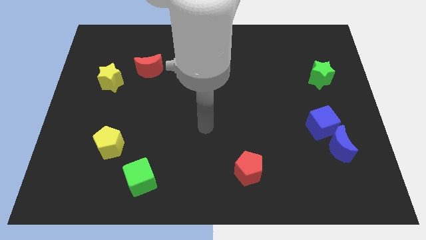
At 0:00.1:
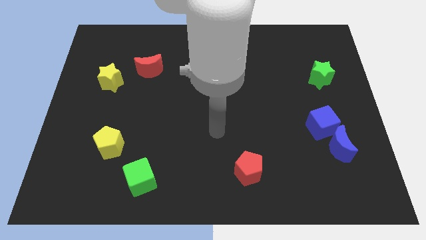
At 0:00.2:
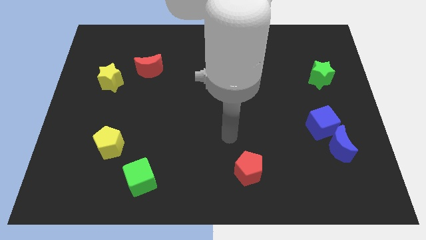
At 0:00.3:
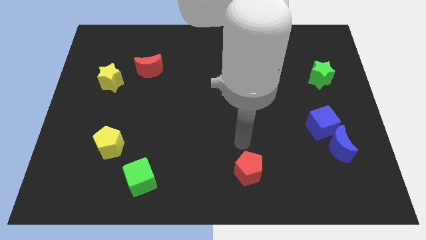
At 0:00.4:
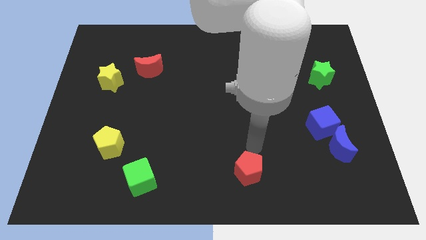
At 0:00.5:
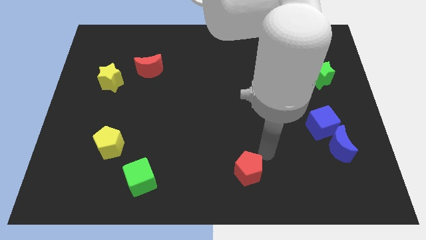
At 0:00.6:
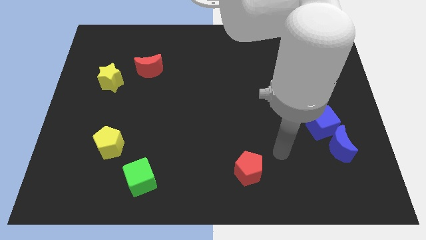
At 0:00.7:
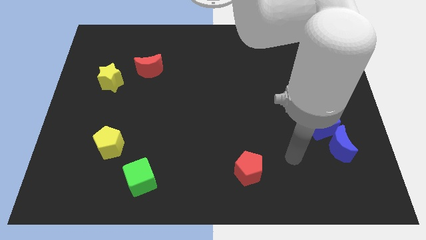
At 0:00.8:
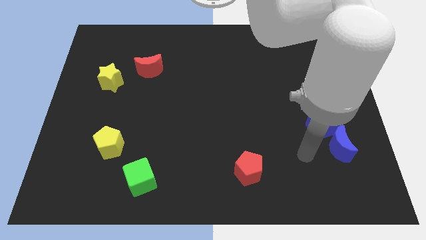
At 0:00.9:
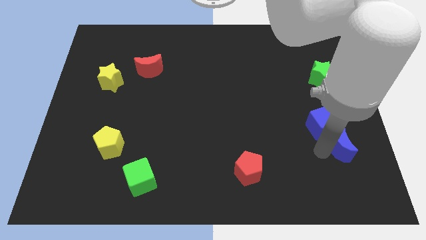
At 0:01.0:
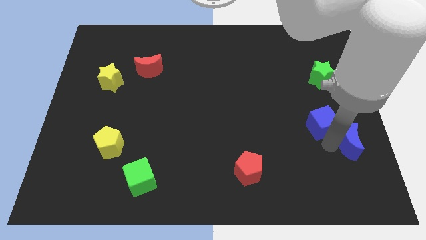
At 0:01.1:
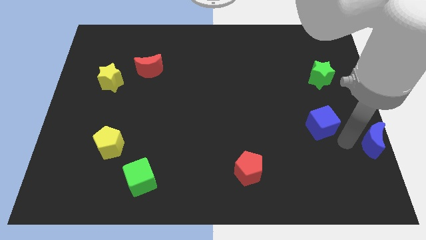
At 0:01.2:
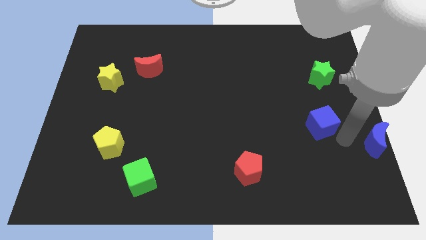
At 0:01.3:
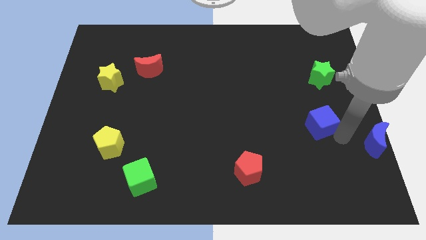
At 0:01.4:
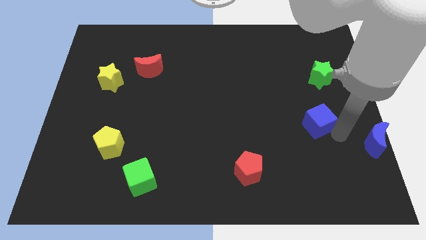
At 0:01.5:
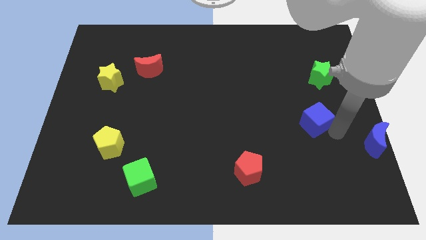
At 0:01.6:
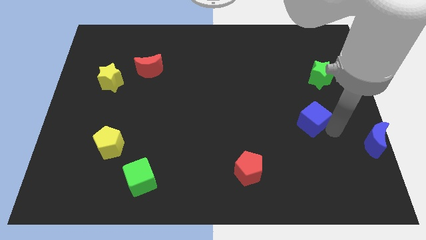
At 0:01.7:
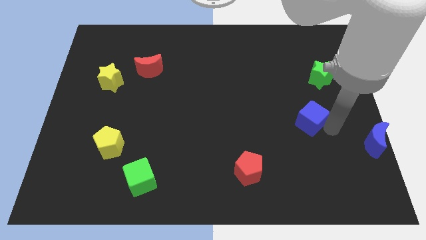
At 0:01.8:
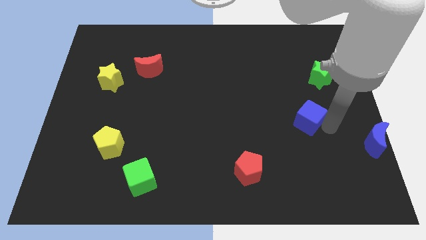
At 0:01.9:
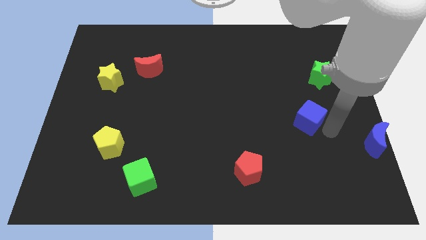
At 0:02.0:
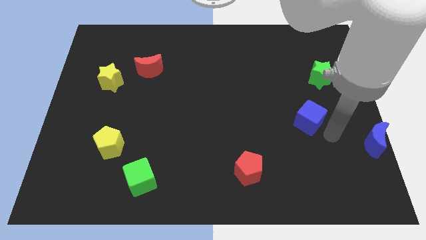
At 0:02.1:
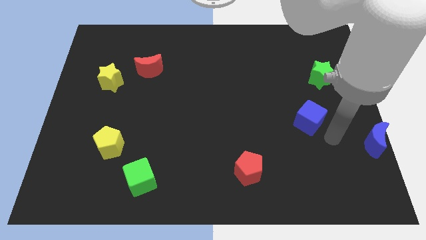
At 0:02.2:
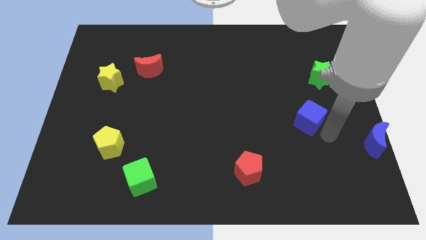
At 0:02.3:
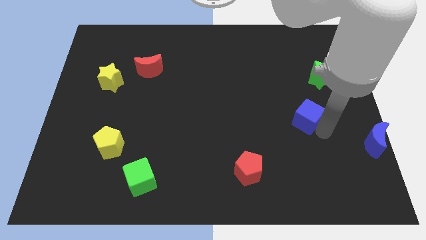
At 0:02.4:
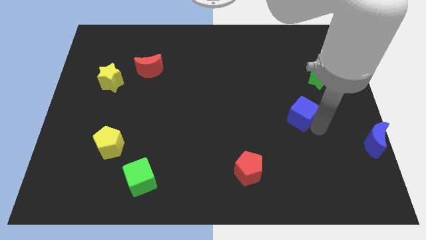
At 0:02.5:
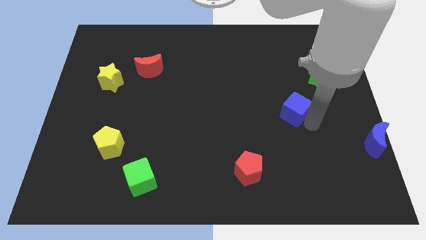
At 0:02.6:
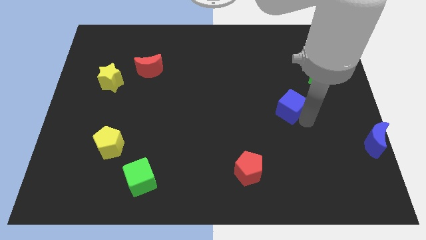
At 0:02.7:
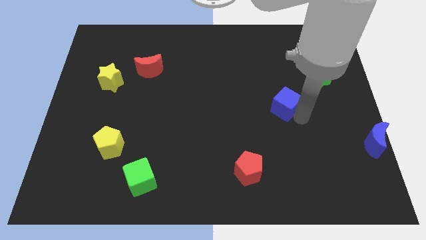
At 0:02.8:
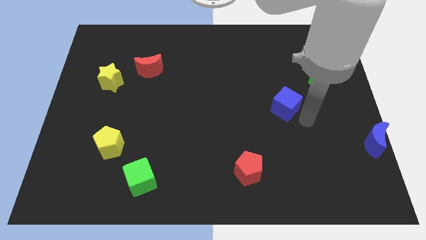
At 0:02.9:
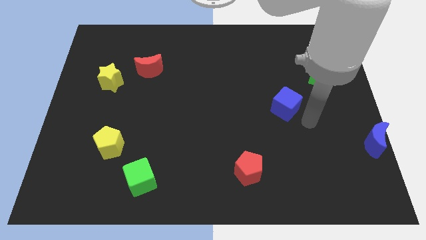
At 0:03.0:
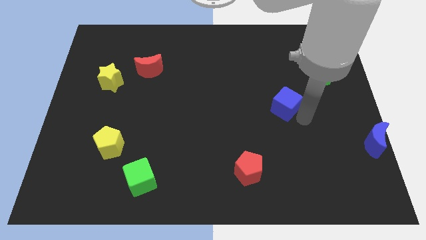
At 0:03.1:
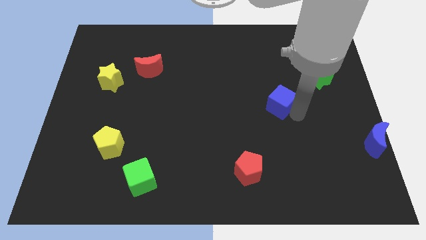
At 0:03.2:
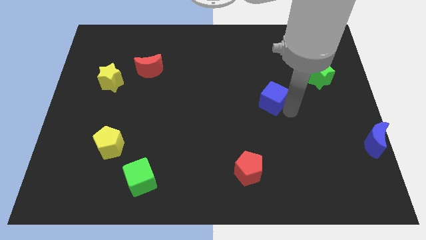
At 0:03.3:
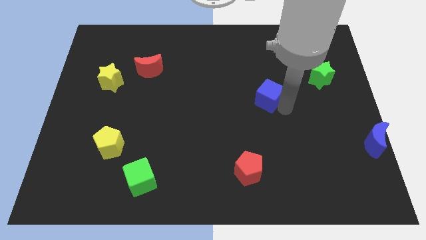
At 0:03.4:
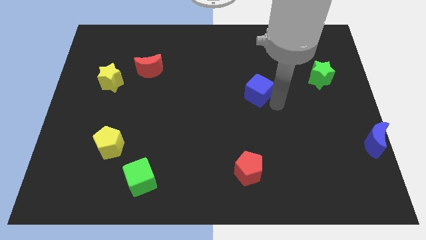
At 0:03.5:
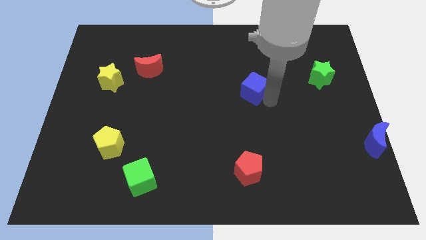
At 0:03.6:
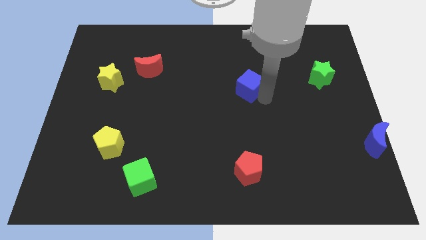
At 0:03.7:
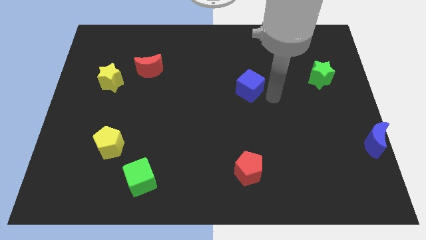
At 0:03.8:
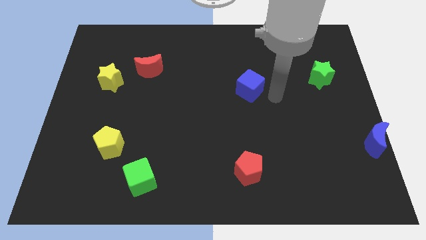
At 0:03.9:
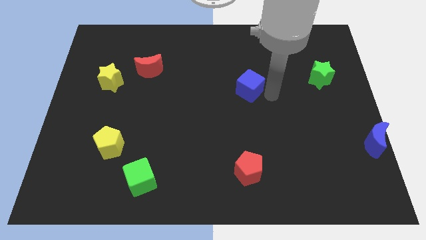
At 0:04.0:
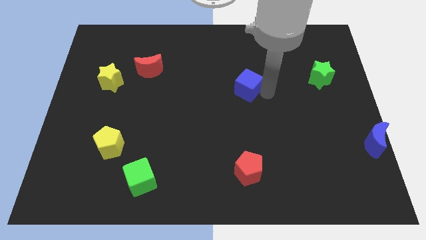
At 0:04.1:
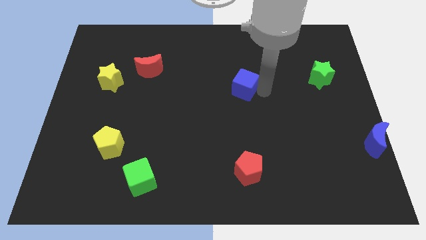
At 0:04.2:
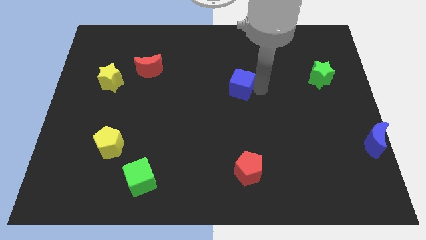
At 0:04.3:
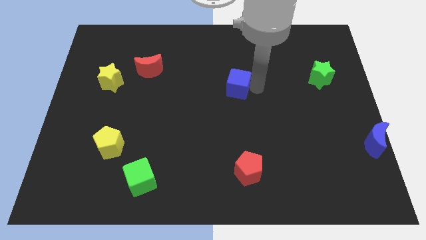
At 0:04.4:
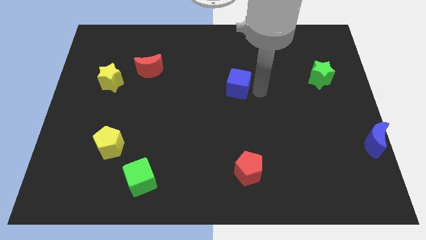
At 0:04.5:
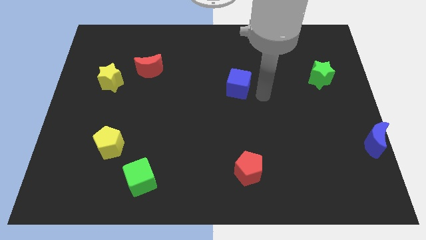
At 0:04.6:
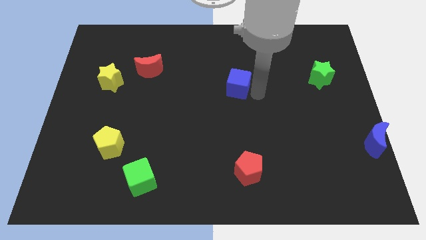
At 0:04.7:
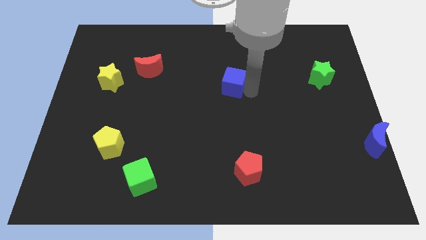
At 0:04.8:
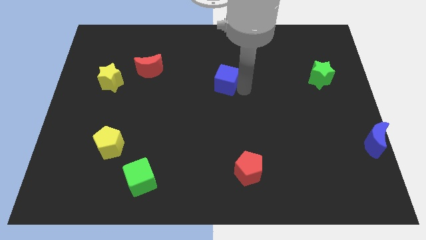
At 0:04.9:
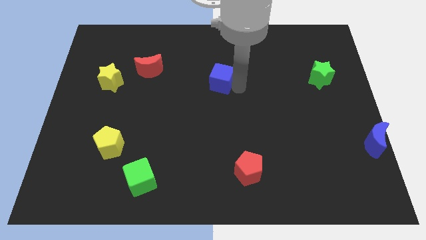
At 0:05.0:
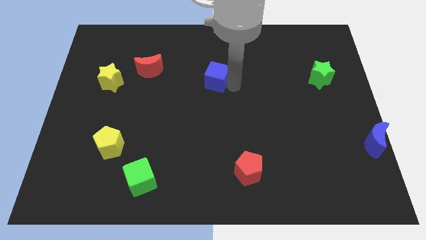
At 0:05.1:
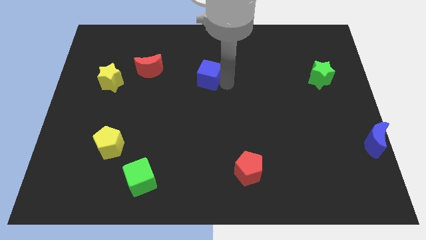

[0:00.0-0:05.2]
slide the blue cube just right of the red moon

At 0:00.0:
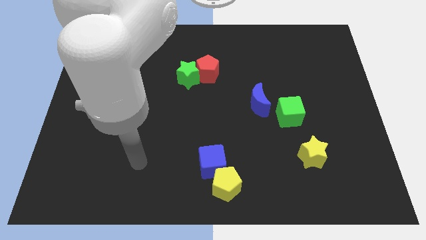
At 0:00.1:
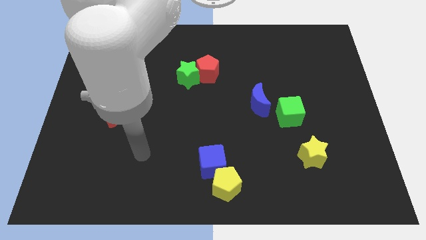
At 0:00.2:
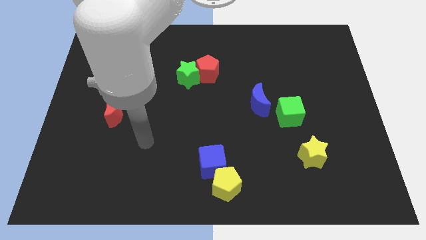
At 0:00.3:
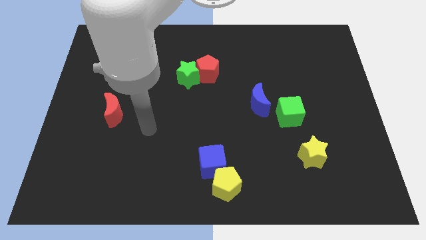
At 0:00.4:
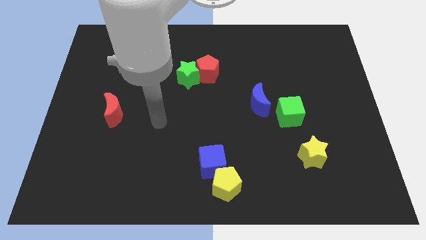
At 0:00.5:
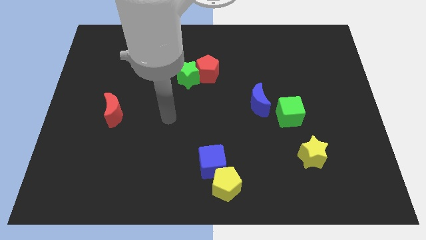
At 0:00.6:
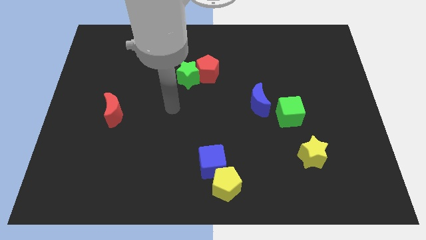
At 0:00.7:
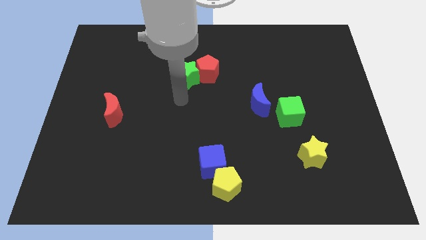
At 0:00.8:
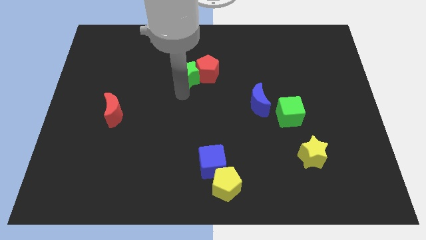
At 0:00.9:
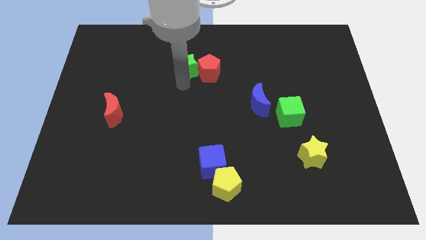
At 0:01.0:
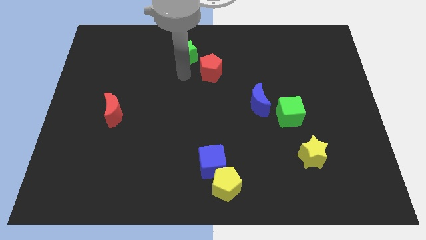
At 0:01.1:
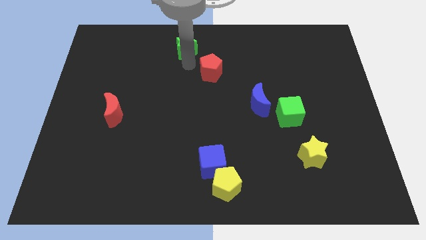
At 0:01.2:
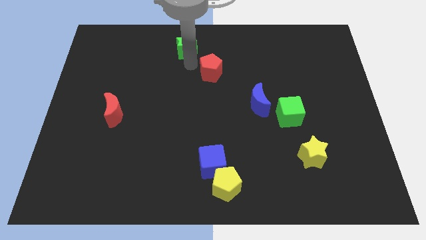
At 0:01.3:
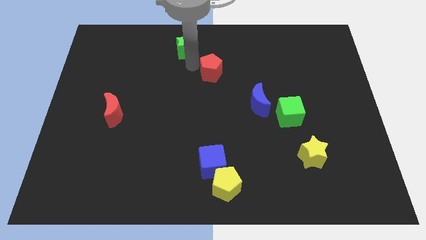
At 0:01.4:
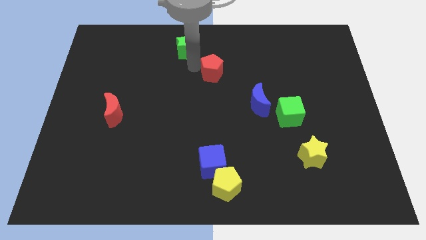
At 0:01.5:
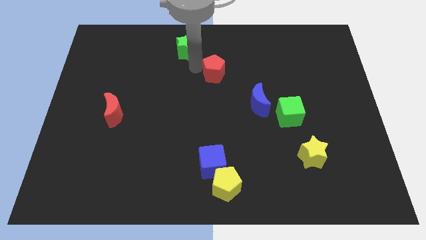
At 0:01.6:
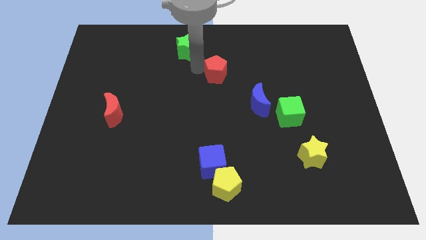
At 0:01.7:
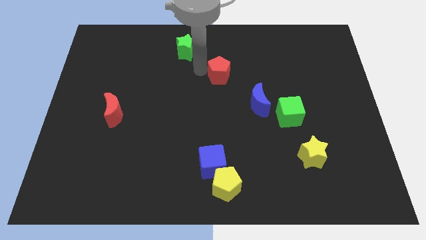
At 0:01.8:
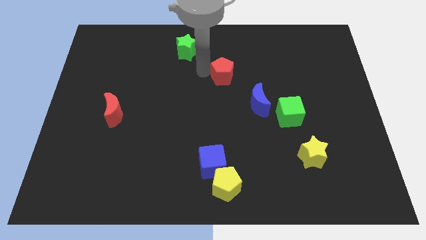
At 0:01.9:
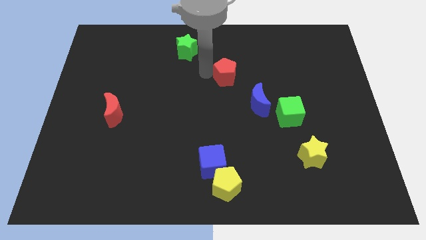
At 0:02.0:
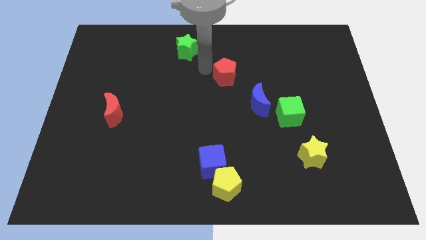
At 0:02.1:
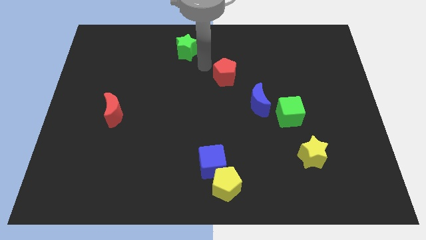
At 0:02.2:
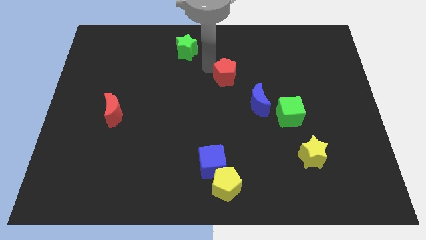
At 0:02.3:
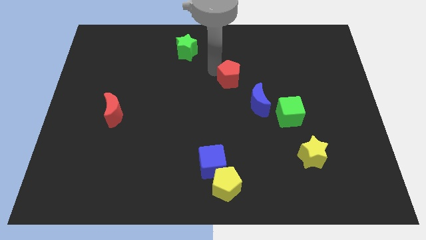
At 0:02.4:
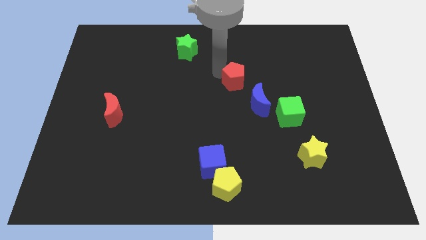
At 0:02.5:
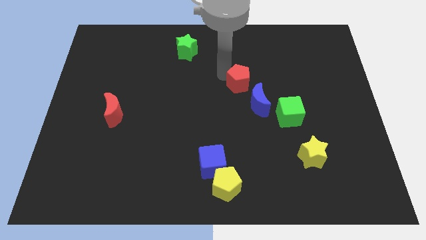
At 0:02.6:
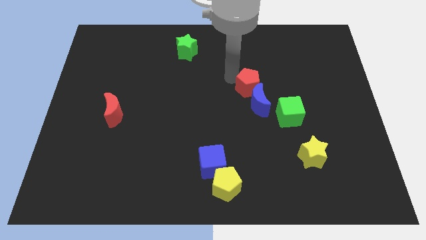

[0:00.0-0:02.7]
slide the red pentagon diagonally up and to the left of the green cube
